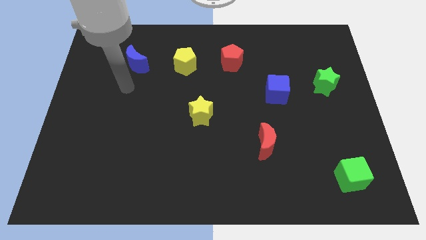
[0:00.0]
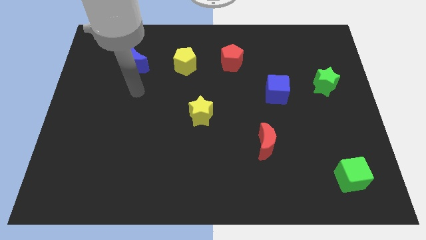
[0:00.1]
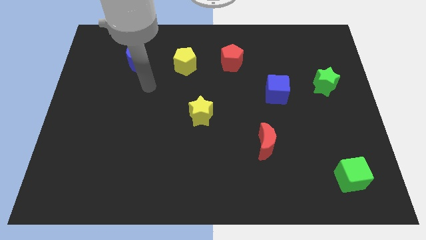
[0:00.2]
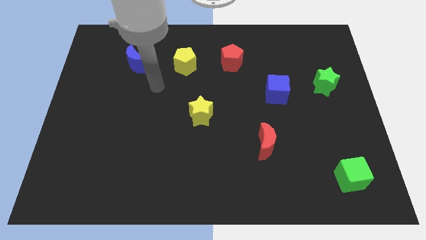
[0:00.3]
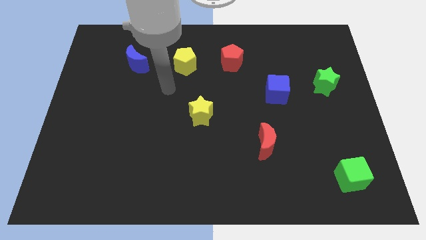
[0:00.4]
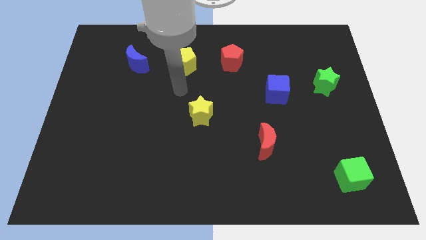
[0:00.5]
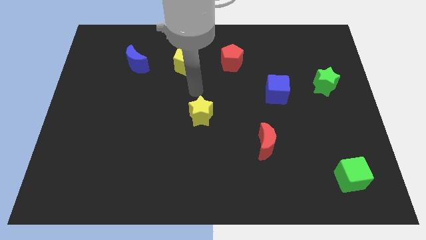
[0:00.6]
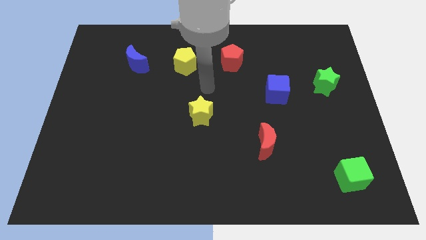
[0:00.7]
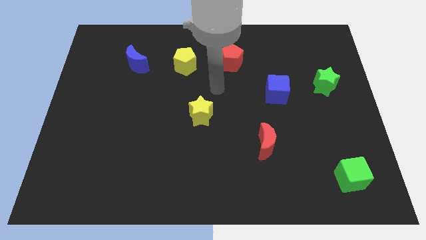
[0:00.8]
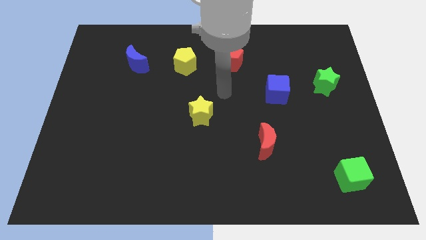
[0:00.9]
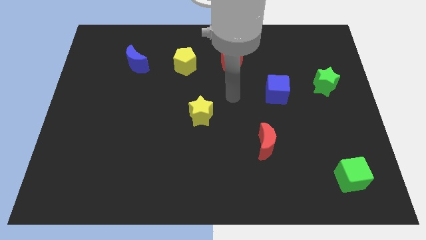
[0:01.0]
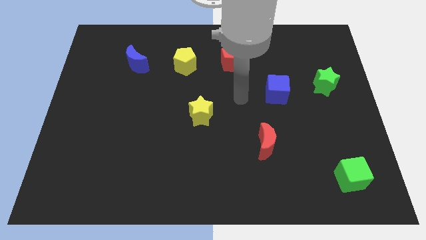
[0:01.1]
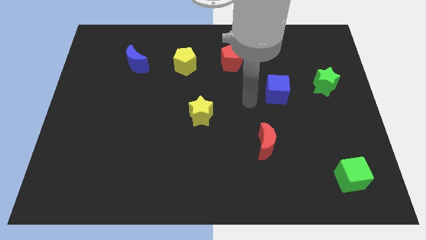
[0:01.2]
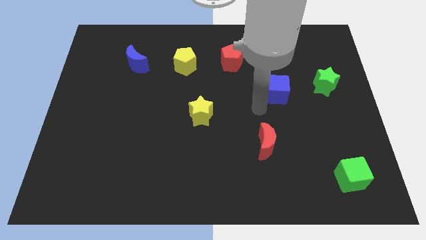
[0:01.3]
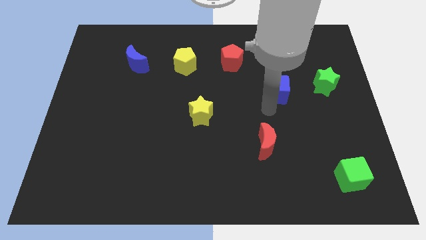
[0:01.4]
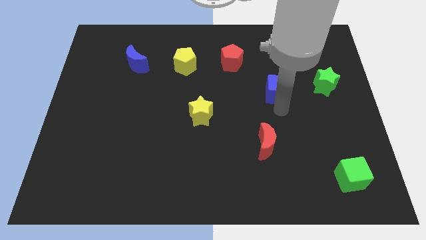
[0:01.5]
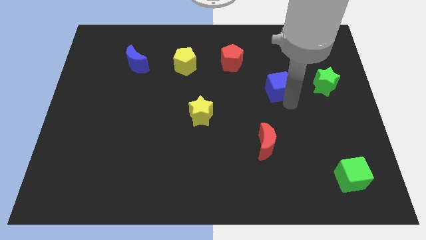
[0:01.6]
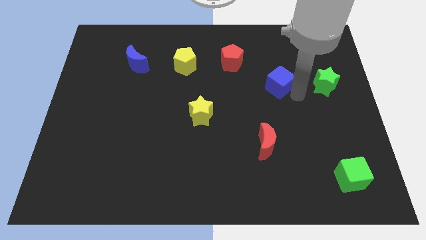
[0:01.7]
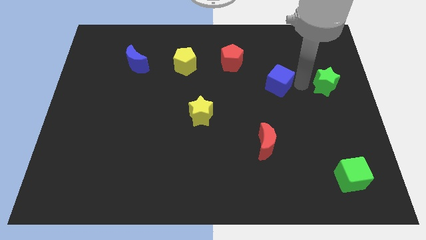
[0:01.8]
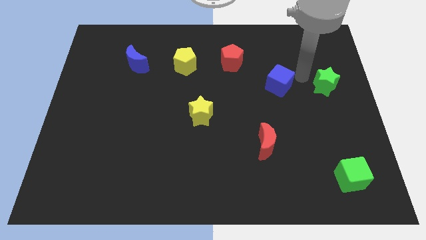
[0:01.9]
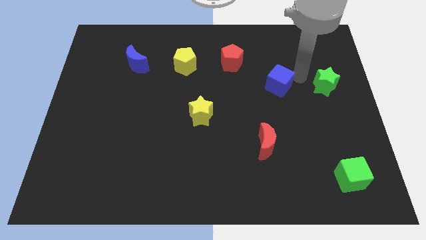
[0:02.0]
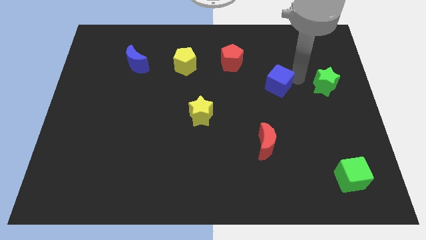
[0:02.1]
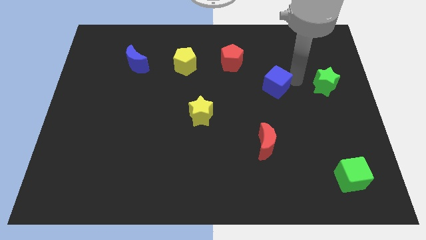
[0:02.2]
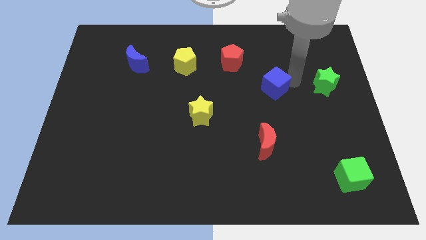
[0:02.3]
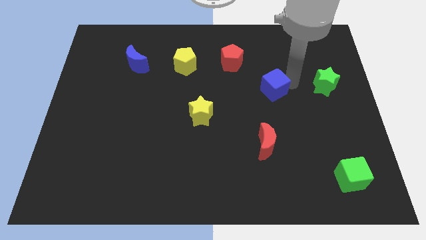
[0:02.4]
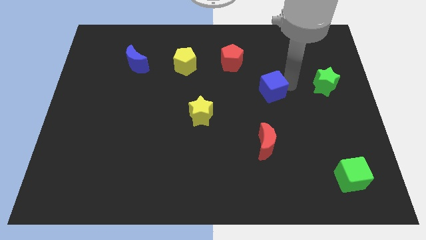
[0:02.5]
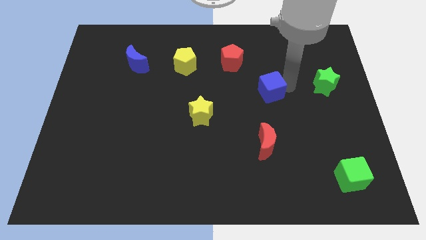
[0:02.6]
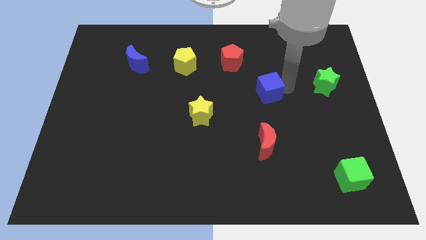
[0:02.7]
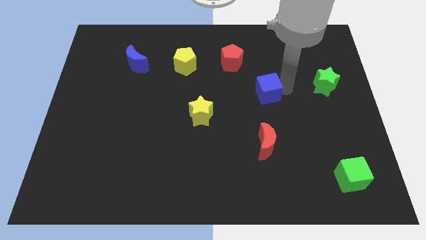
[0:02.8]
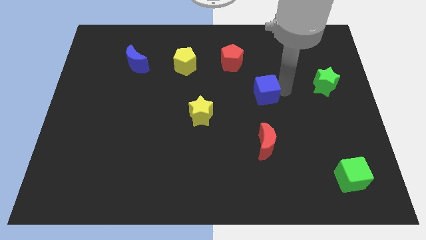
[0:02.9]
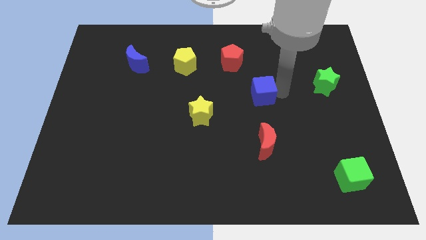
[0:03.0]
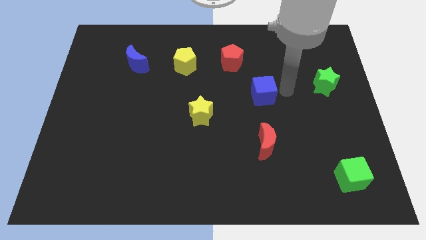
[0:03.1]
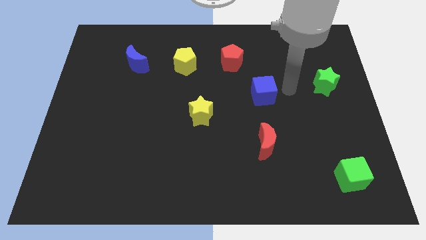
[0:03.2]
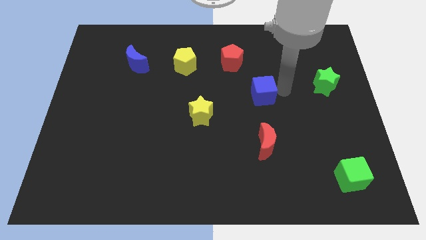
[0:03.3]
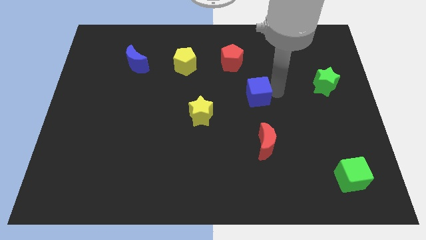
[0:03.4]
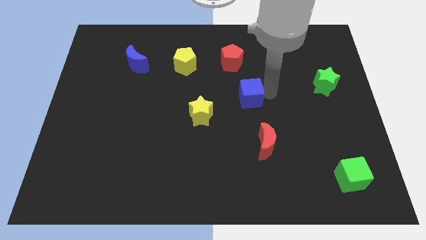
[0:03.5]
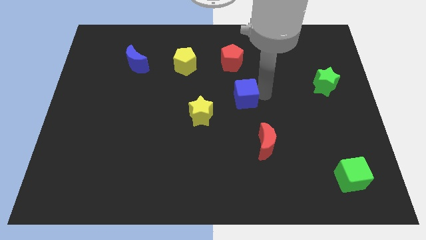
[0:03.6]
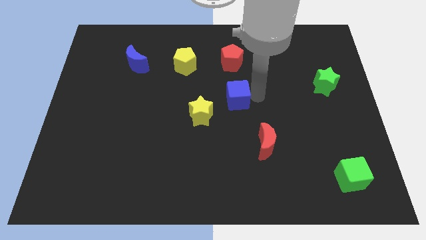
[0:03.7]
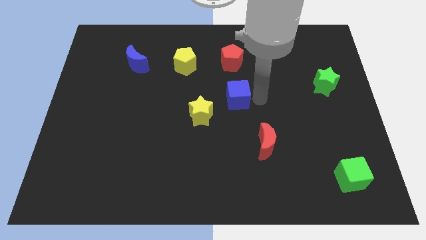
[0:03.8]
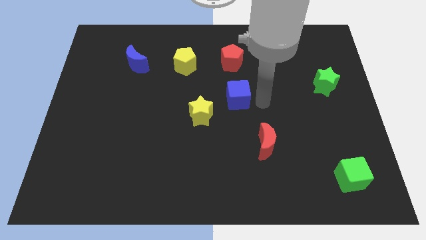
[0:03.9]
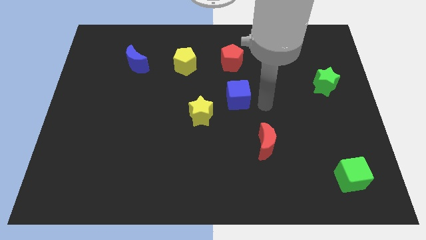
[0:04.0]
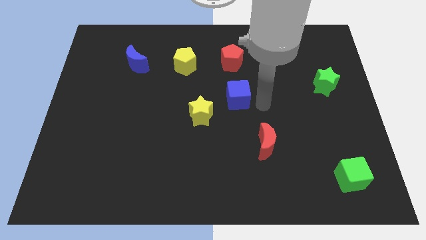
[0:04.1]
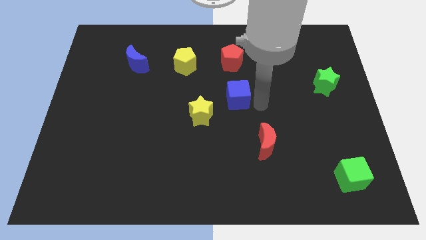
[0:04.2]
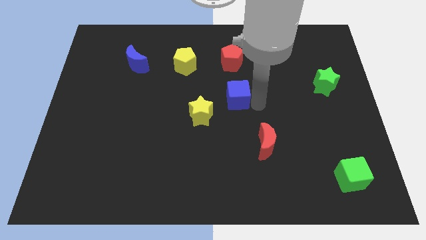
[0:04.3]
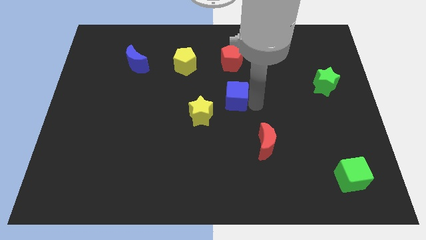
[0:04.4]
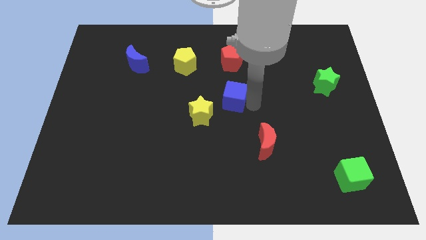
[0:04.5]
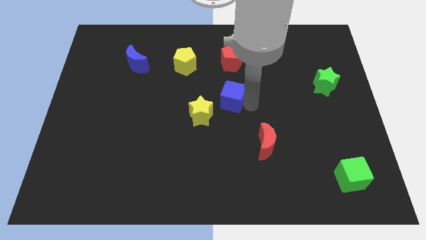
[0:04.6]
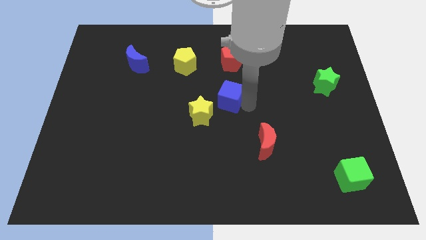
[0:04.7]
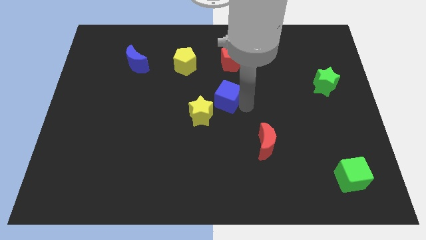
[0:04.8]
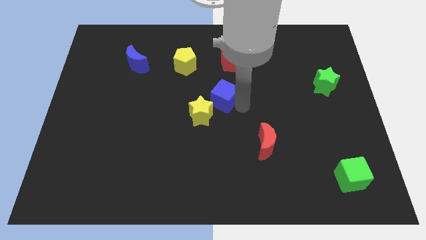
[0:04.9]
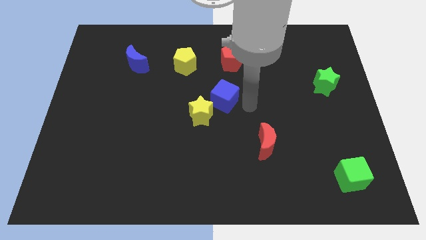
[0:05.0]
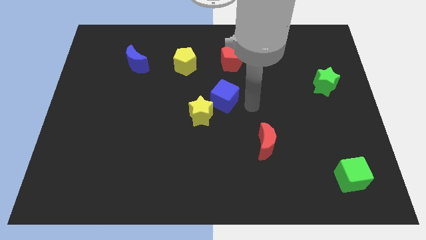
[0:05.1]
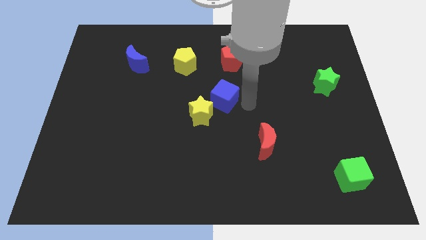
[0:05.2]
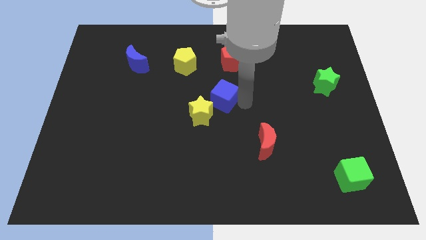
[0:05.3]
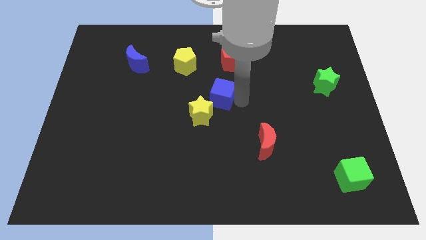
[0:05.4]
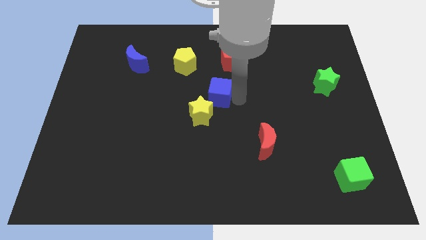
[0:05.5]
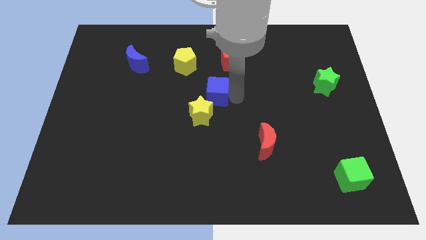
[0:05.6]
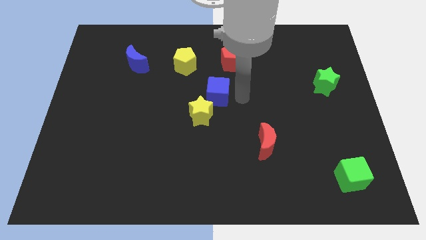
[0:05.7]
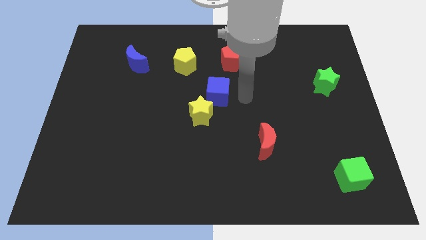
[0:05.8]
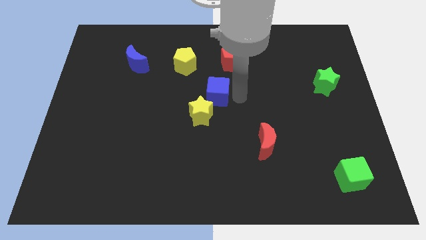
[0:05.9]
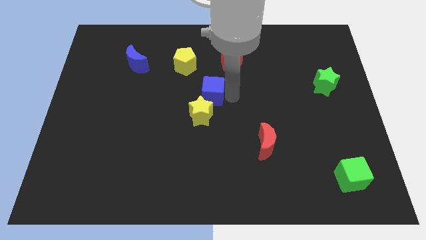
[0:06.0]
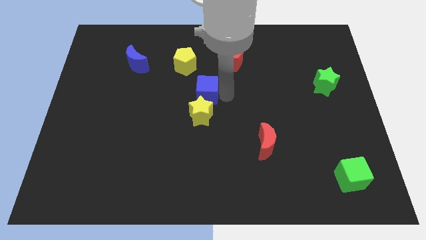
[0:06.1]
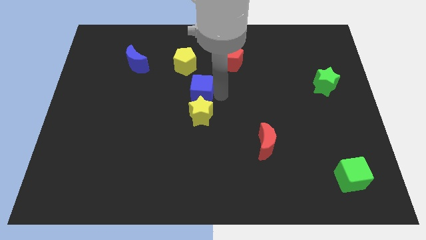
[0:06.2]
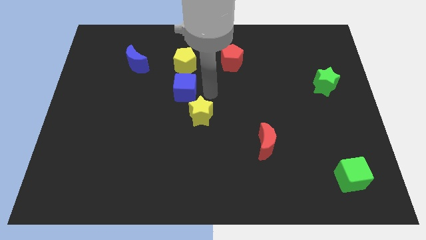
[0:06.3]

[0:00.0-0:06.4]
slide the blue cube to the left

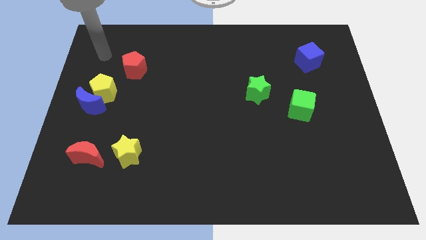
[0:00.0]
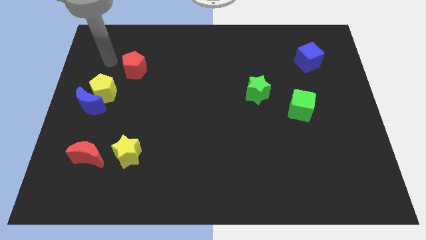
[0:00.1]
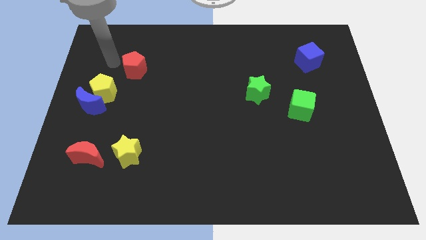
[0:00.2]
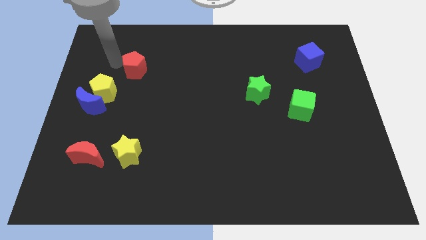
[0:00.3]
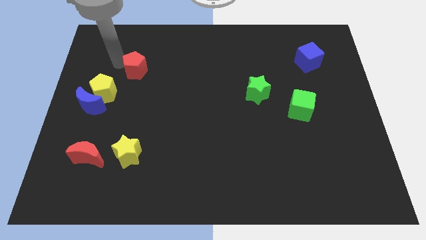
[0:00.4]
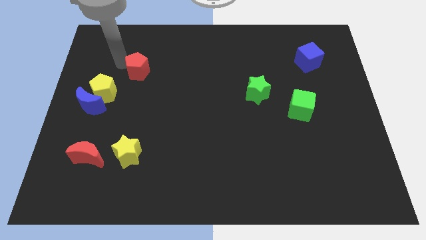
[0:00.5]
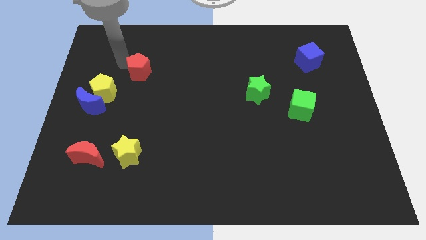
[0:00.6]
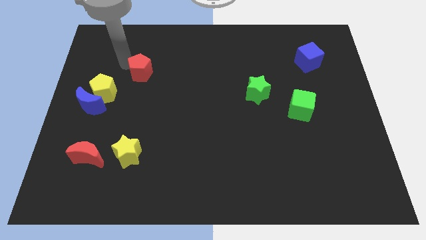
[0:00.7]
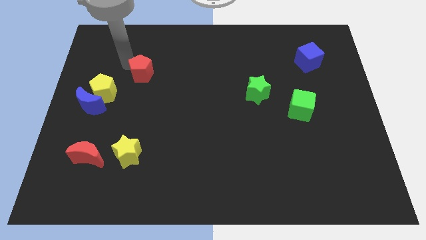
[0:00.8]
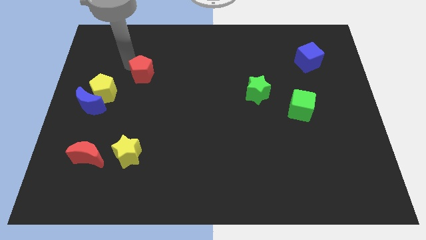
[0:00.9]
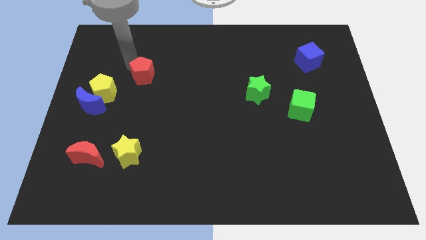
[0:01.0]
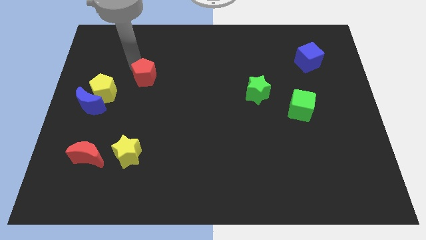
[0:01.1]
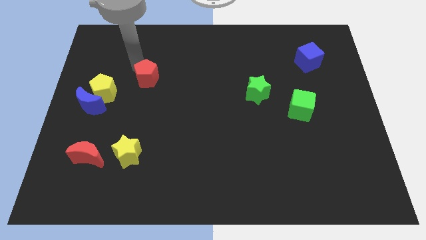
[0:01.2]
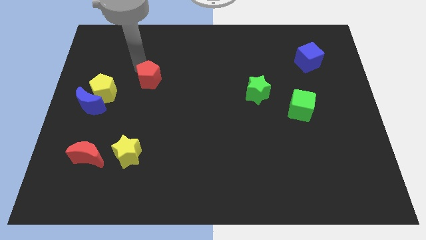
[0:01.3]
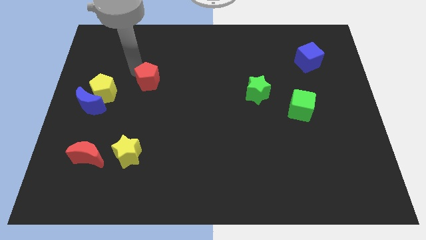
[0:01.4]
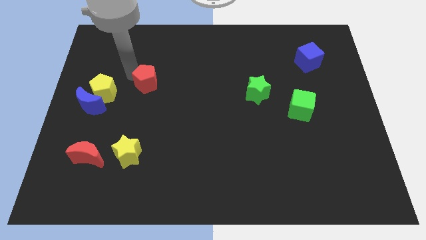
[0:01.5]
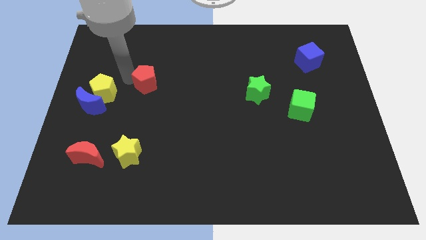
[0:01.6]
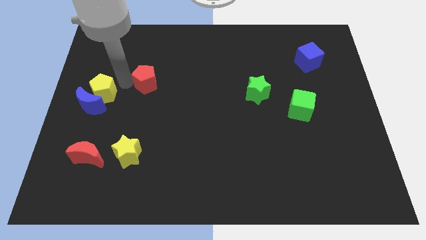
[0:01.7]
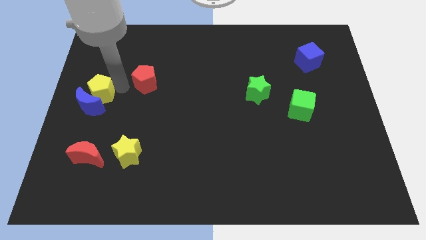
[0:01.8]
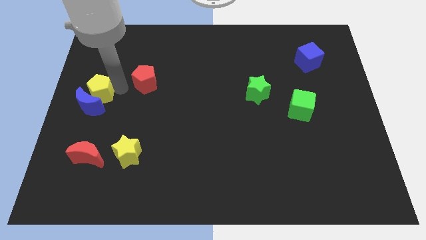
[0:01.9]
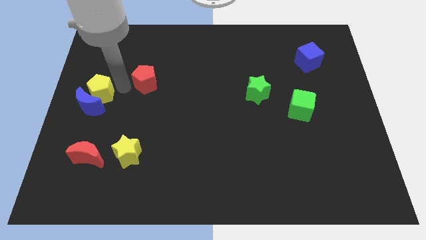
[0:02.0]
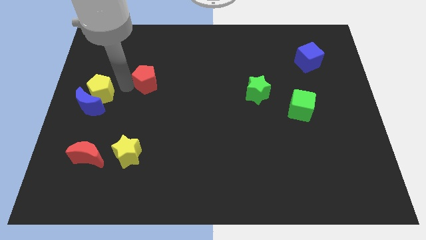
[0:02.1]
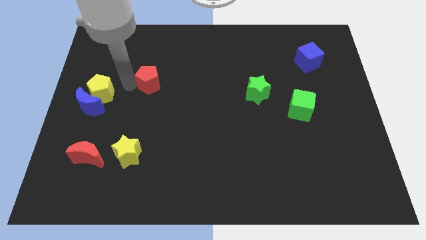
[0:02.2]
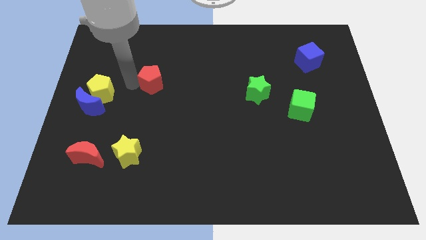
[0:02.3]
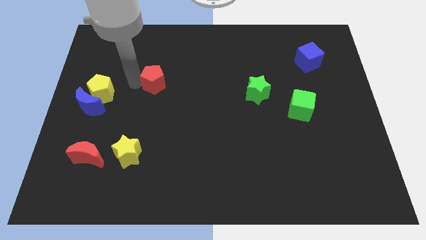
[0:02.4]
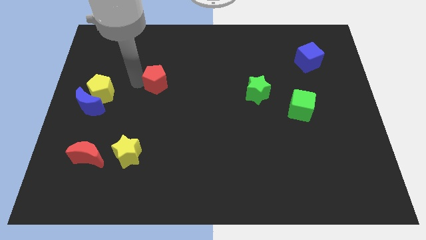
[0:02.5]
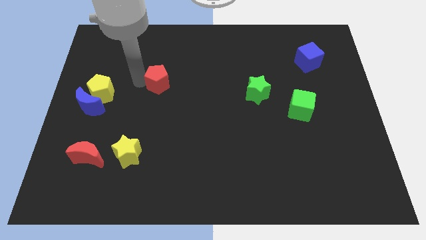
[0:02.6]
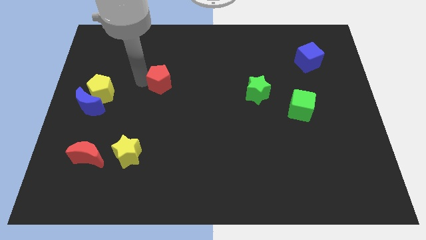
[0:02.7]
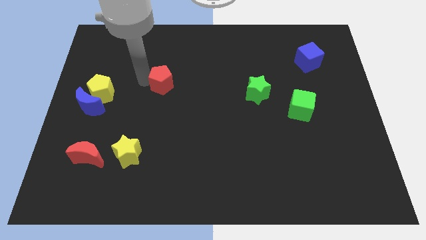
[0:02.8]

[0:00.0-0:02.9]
slightly slide the red pentagon to the right
